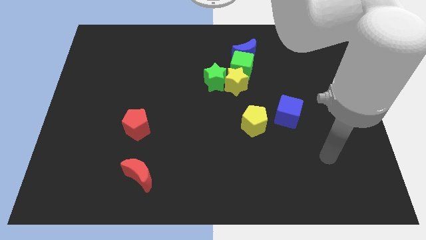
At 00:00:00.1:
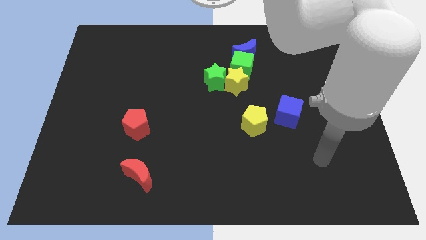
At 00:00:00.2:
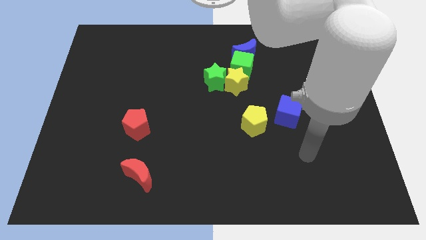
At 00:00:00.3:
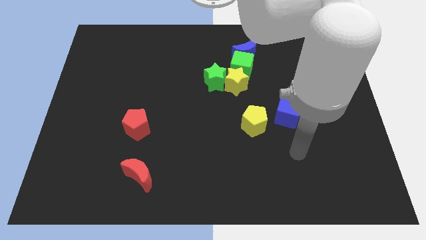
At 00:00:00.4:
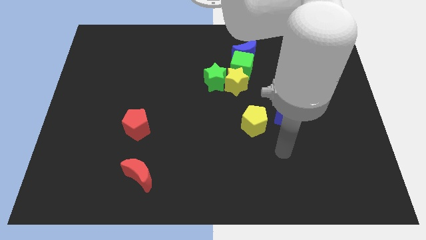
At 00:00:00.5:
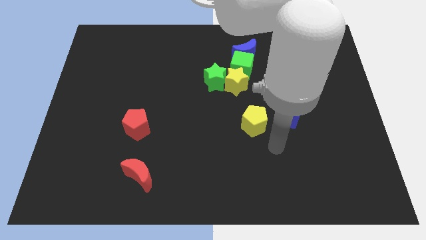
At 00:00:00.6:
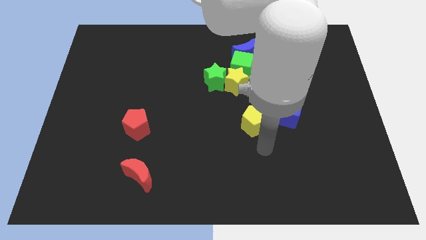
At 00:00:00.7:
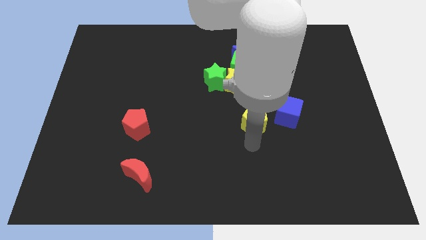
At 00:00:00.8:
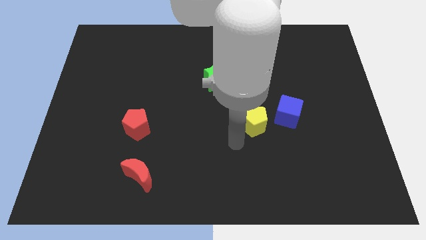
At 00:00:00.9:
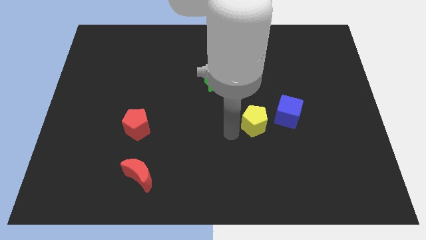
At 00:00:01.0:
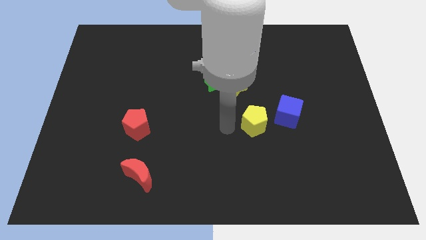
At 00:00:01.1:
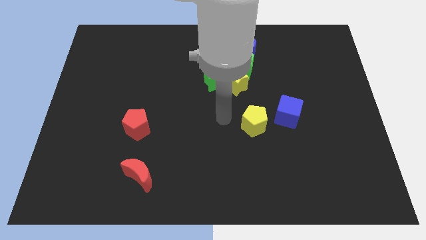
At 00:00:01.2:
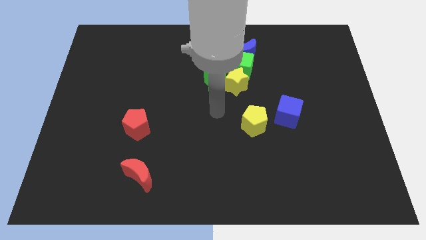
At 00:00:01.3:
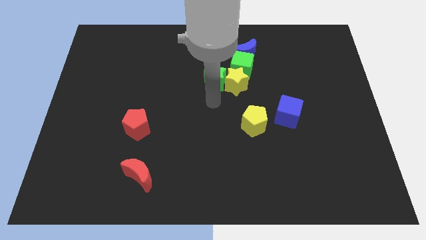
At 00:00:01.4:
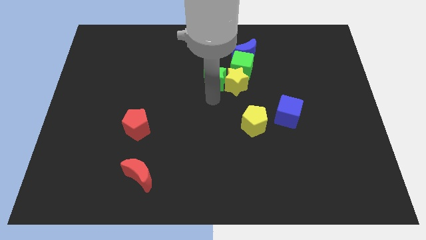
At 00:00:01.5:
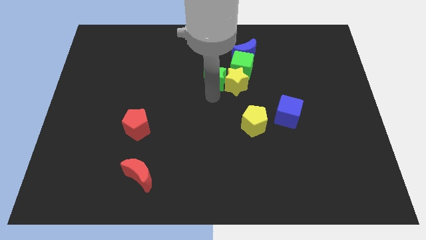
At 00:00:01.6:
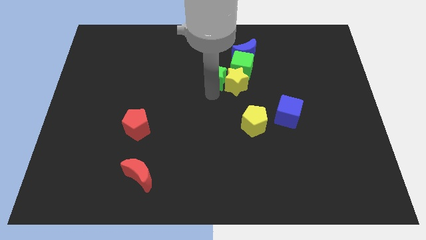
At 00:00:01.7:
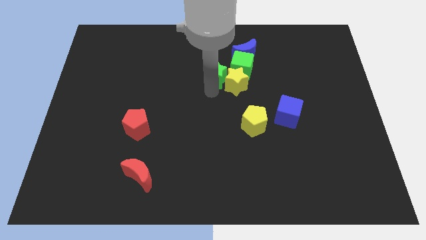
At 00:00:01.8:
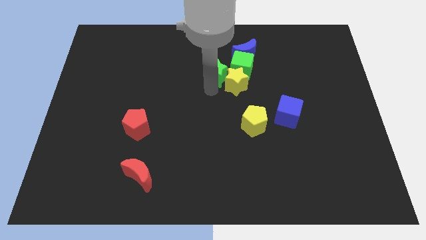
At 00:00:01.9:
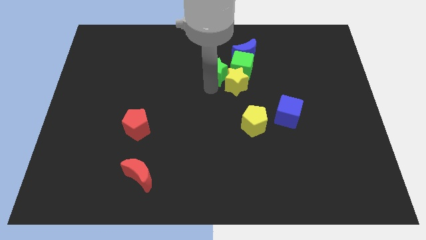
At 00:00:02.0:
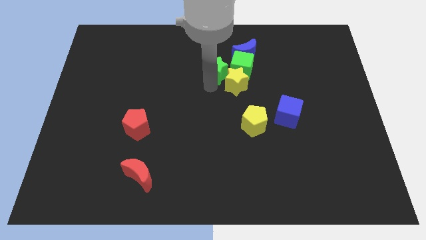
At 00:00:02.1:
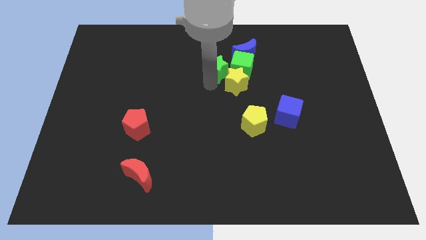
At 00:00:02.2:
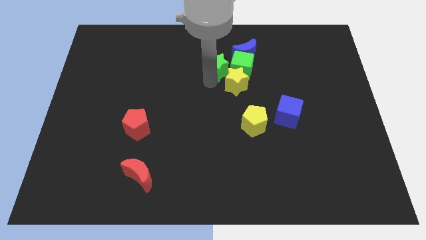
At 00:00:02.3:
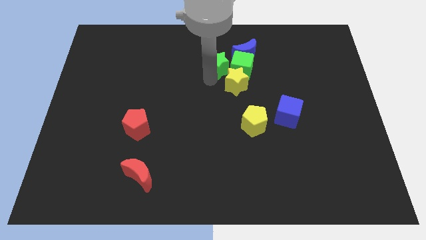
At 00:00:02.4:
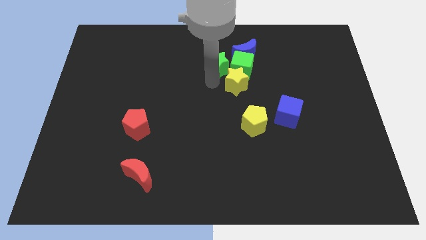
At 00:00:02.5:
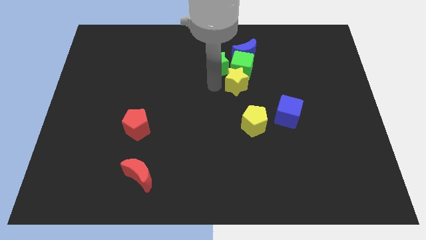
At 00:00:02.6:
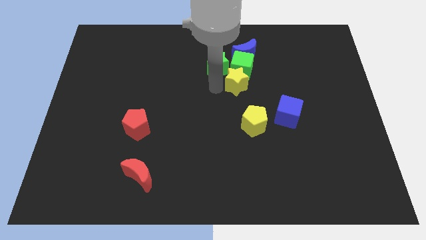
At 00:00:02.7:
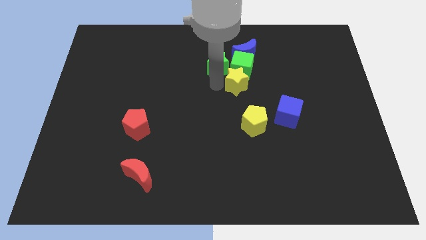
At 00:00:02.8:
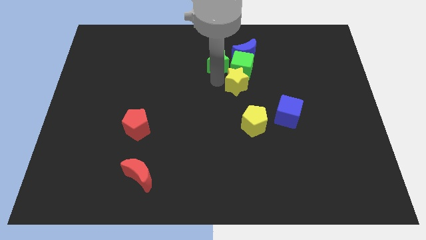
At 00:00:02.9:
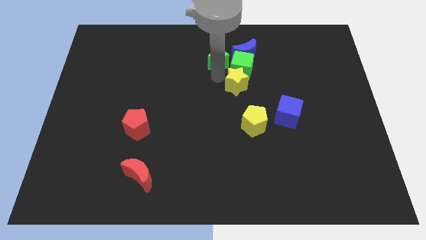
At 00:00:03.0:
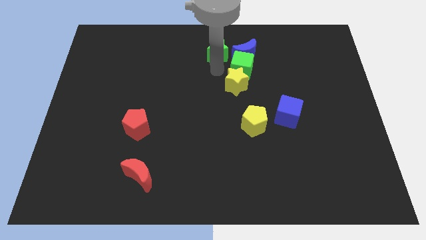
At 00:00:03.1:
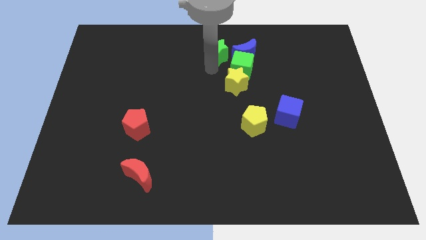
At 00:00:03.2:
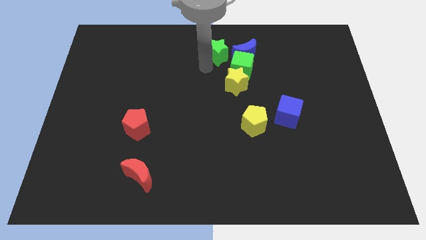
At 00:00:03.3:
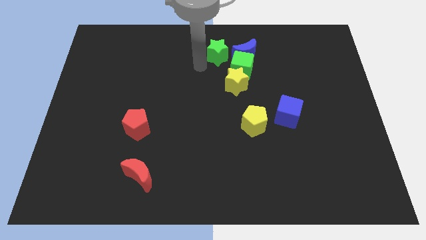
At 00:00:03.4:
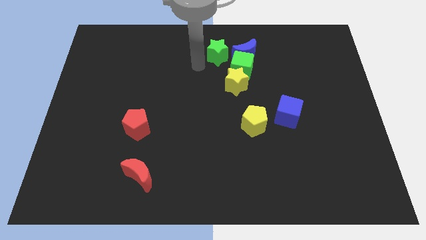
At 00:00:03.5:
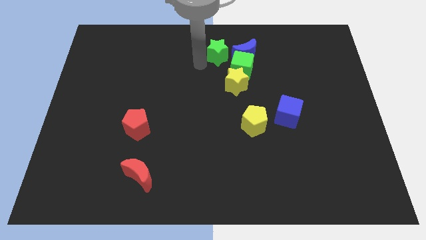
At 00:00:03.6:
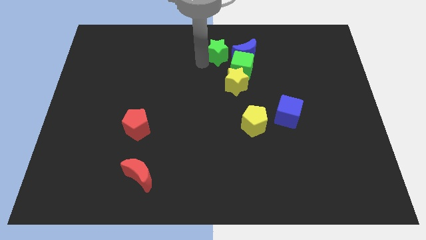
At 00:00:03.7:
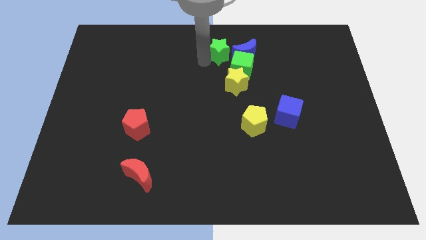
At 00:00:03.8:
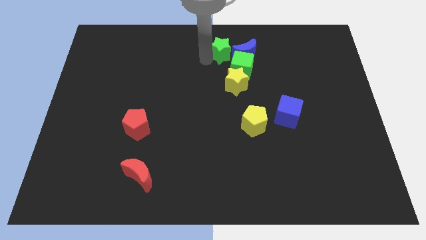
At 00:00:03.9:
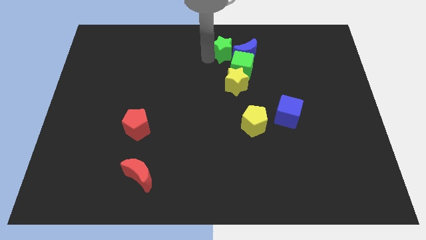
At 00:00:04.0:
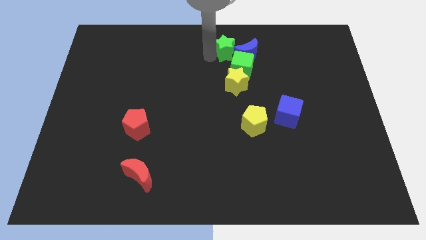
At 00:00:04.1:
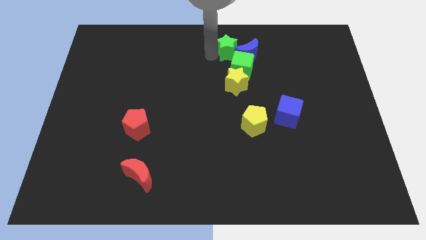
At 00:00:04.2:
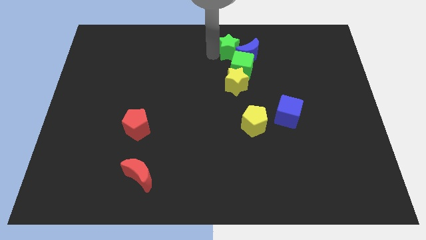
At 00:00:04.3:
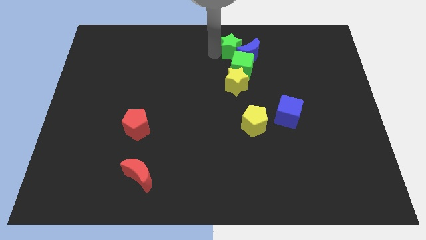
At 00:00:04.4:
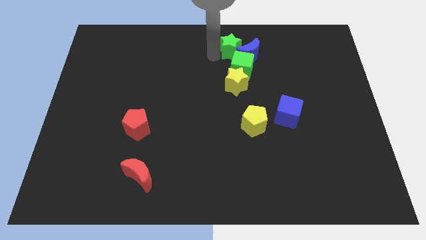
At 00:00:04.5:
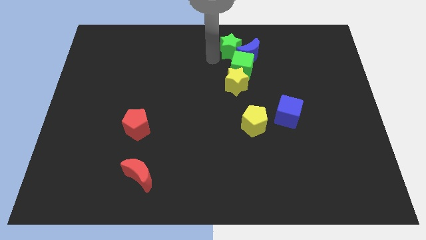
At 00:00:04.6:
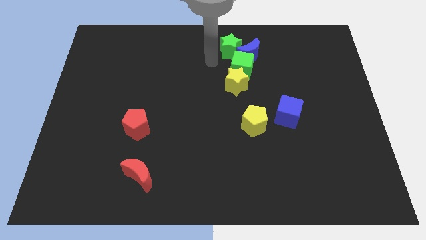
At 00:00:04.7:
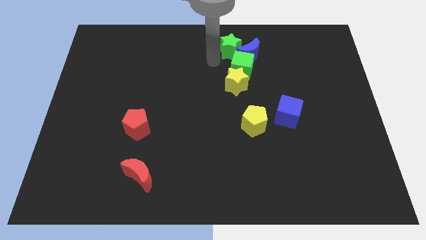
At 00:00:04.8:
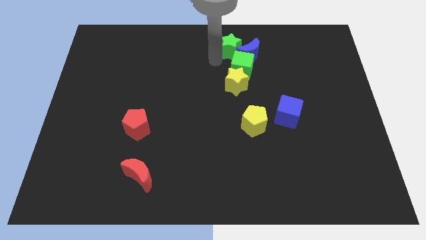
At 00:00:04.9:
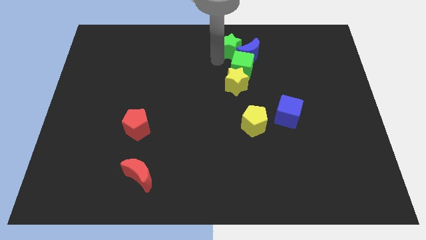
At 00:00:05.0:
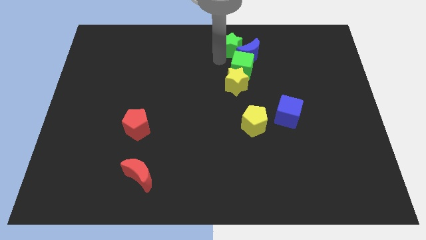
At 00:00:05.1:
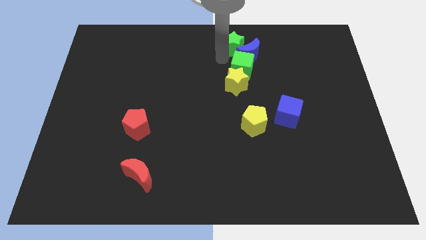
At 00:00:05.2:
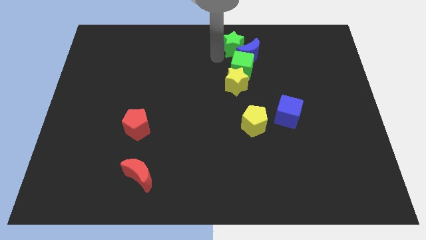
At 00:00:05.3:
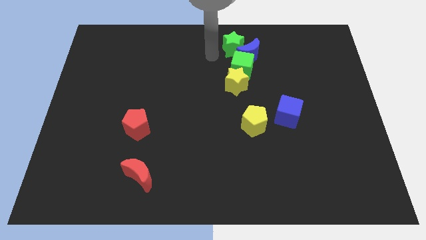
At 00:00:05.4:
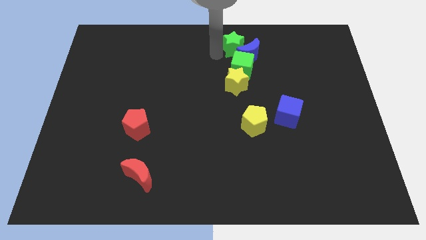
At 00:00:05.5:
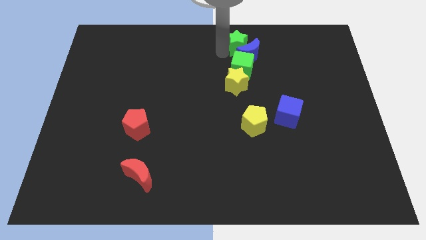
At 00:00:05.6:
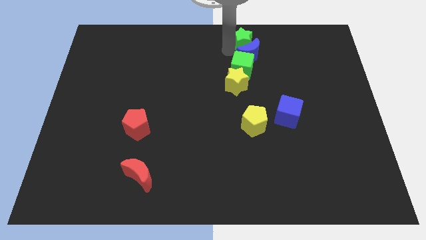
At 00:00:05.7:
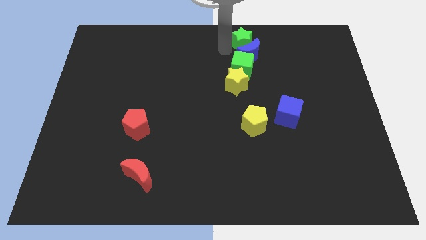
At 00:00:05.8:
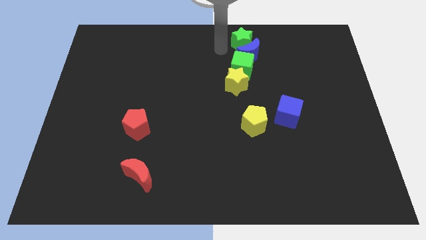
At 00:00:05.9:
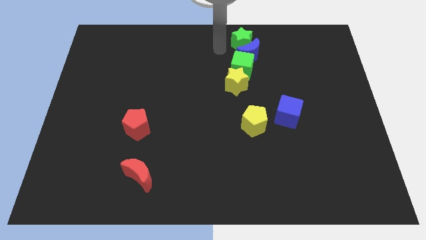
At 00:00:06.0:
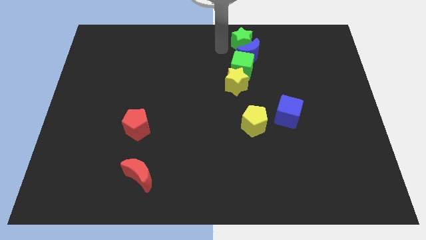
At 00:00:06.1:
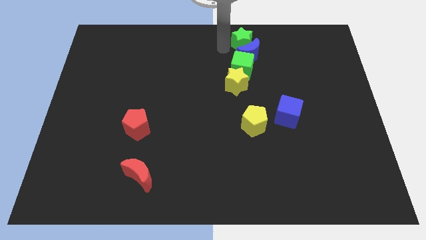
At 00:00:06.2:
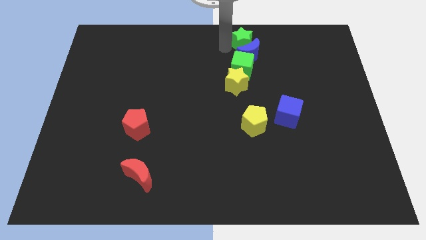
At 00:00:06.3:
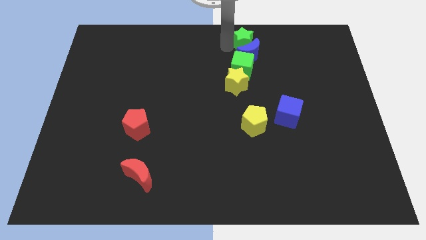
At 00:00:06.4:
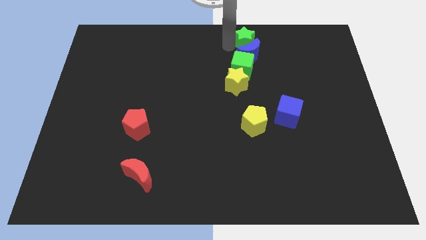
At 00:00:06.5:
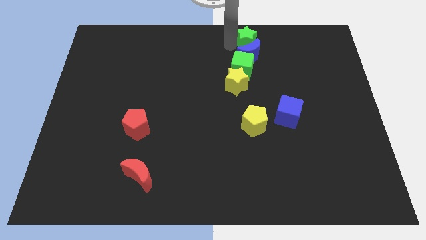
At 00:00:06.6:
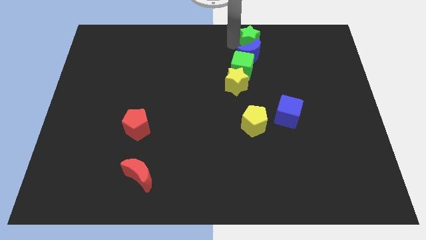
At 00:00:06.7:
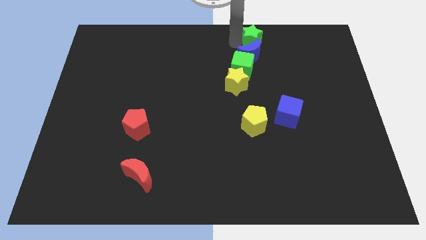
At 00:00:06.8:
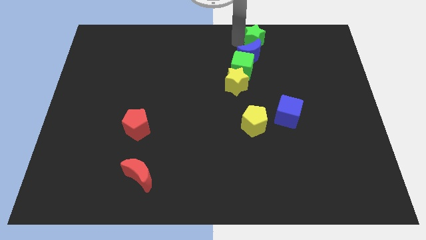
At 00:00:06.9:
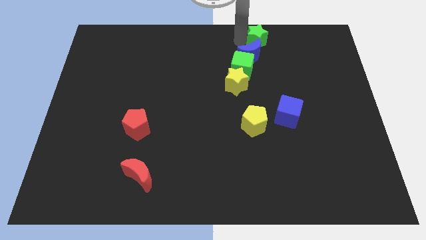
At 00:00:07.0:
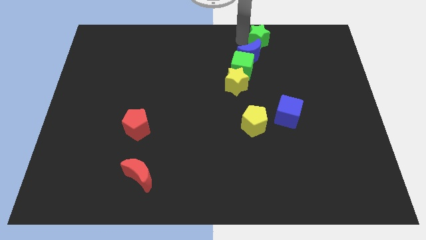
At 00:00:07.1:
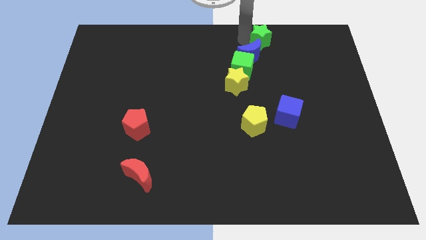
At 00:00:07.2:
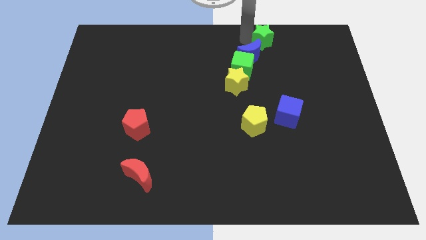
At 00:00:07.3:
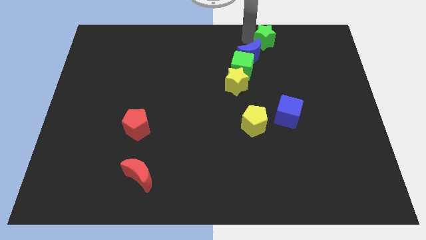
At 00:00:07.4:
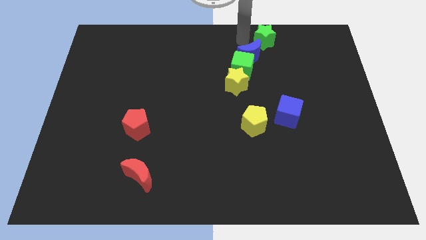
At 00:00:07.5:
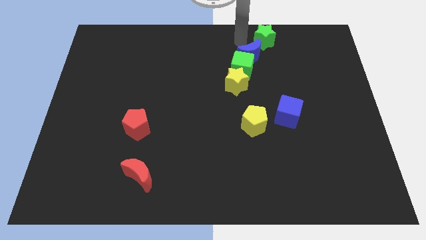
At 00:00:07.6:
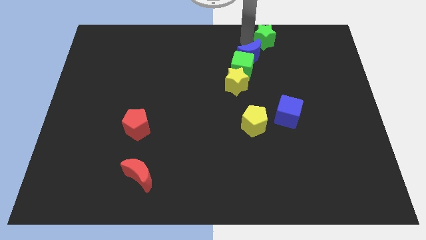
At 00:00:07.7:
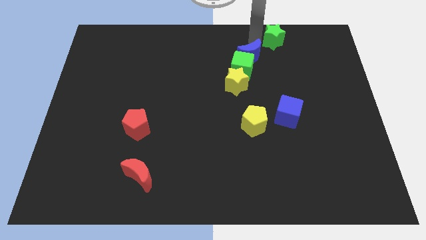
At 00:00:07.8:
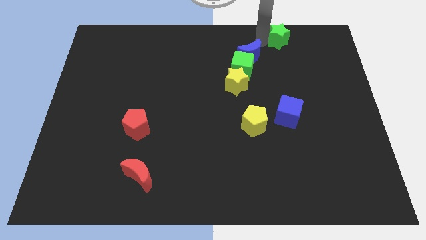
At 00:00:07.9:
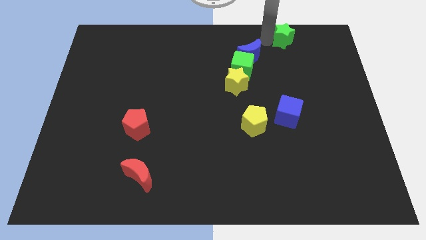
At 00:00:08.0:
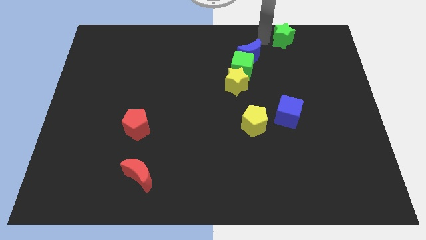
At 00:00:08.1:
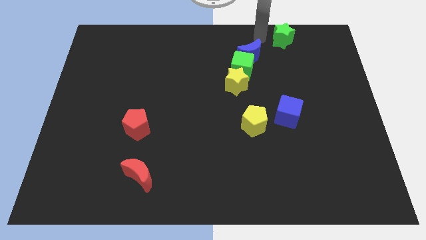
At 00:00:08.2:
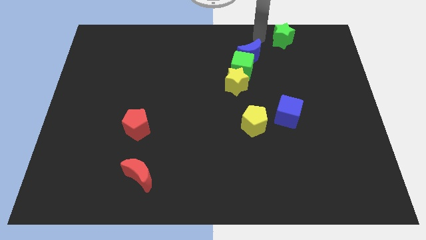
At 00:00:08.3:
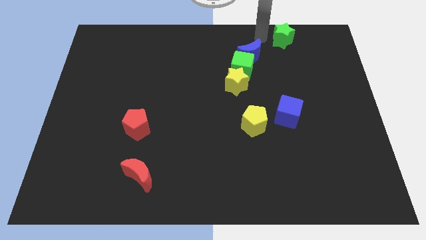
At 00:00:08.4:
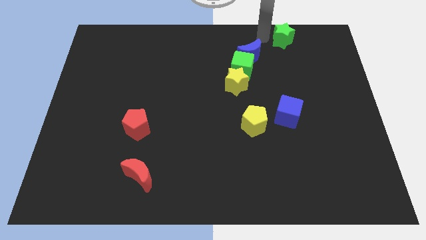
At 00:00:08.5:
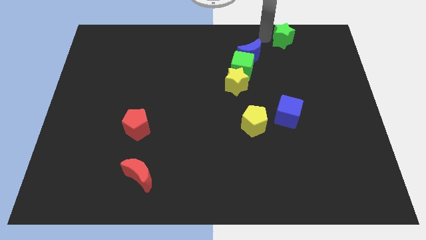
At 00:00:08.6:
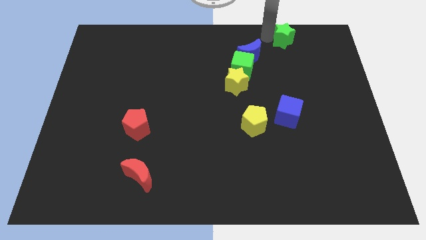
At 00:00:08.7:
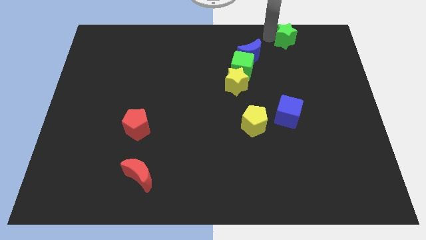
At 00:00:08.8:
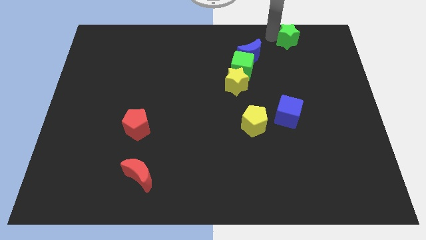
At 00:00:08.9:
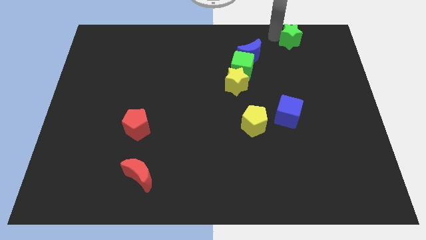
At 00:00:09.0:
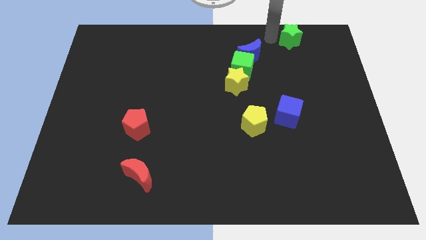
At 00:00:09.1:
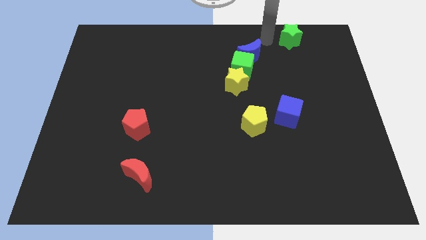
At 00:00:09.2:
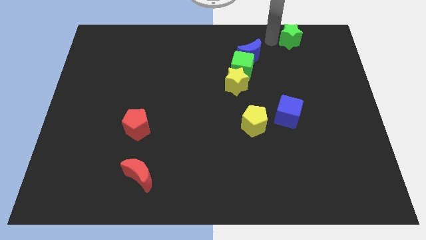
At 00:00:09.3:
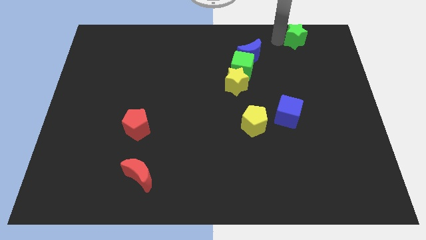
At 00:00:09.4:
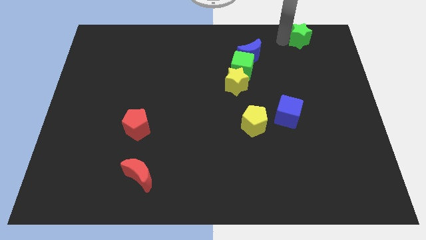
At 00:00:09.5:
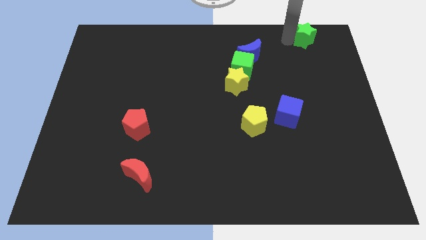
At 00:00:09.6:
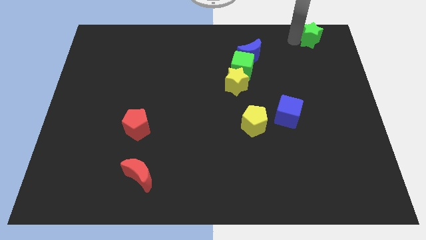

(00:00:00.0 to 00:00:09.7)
move the green star to the top right of the board
